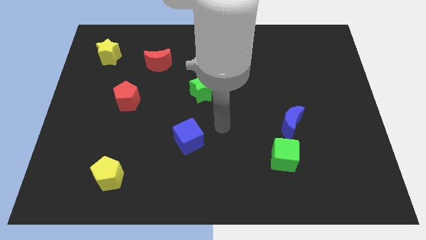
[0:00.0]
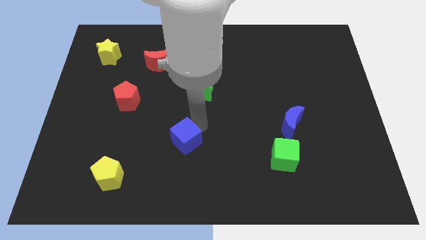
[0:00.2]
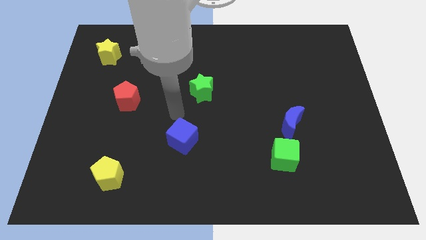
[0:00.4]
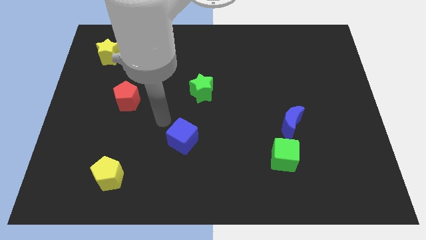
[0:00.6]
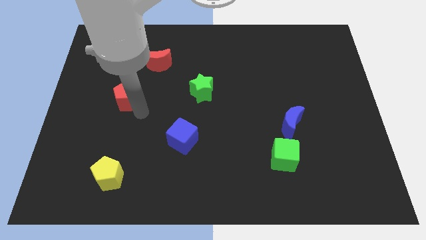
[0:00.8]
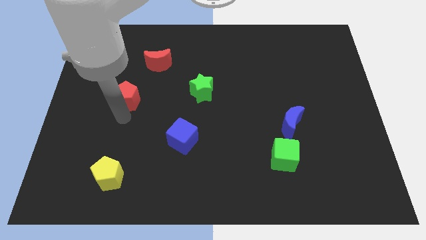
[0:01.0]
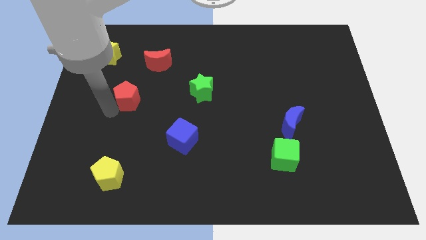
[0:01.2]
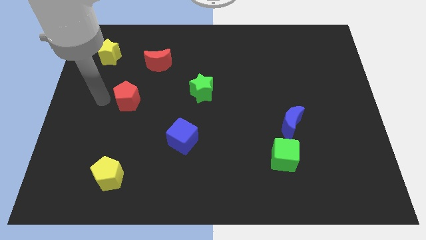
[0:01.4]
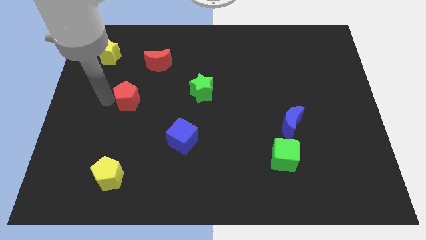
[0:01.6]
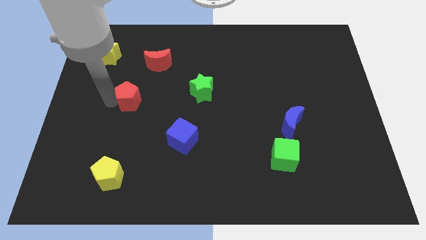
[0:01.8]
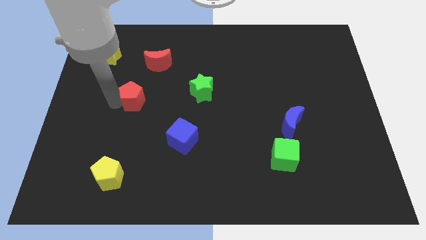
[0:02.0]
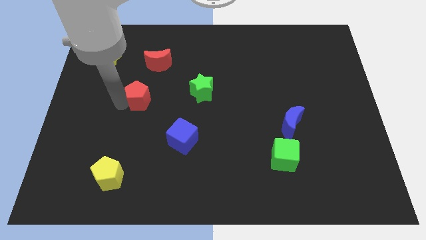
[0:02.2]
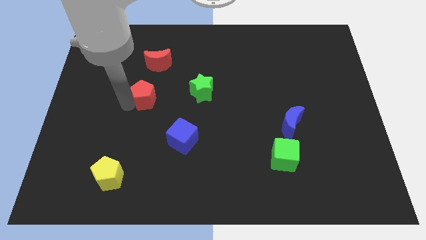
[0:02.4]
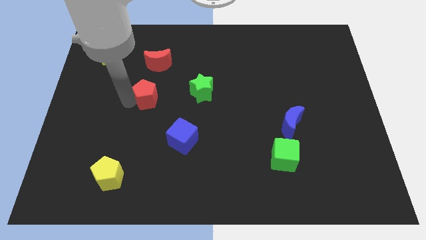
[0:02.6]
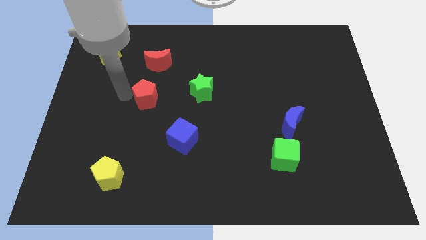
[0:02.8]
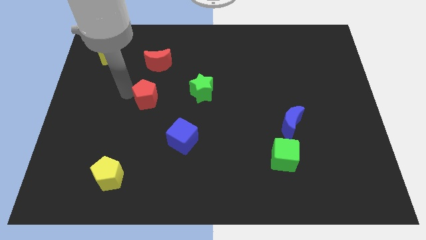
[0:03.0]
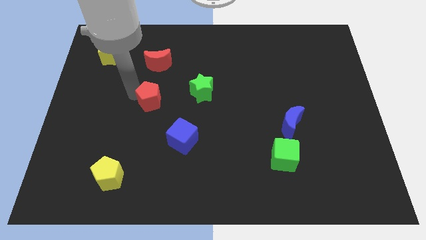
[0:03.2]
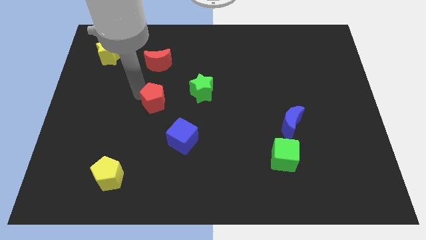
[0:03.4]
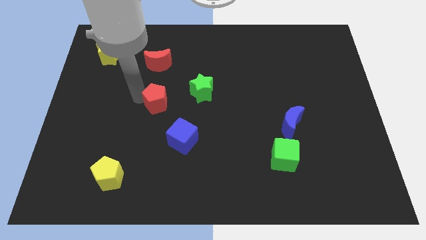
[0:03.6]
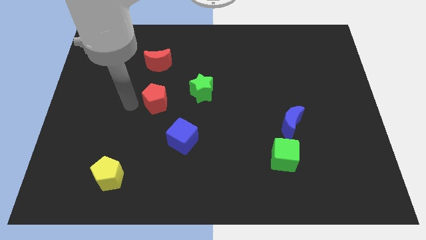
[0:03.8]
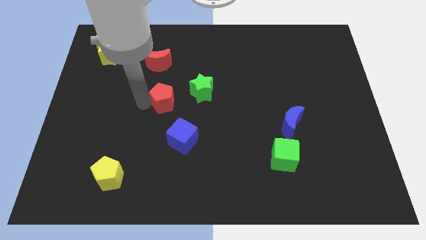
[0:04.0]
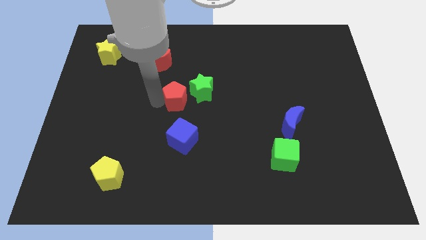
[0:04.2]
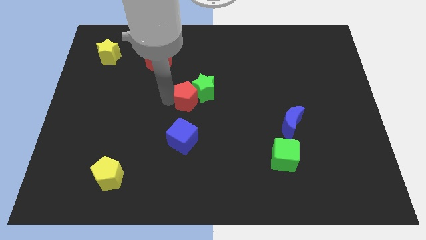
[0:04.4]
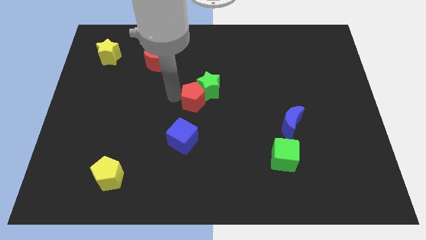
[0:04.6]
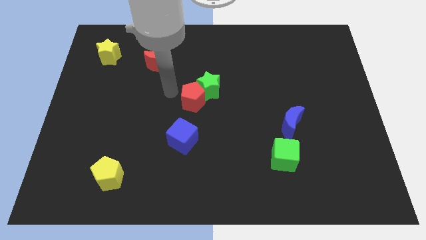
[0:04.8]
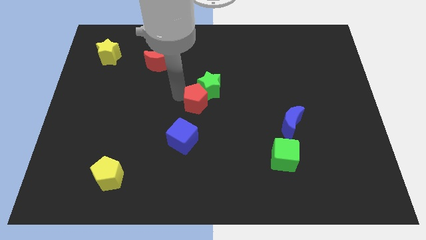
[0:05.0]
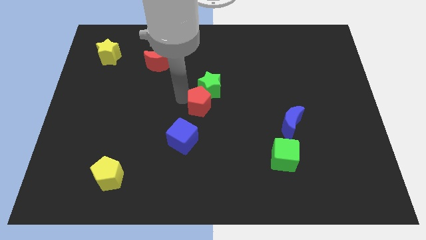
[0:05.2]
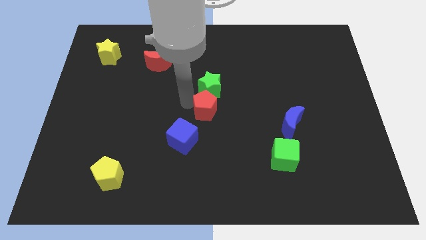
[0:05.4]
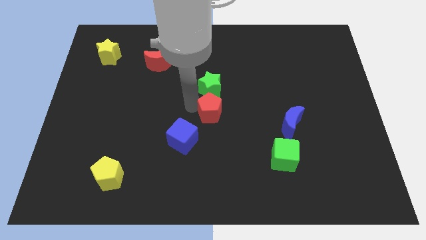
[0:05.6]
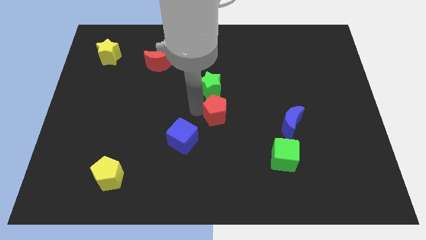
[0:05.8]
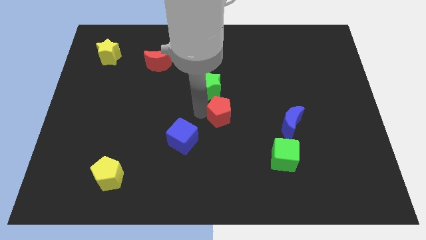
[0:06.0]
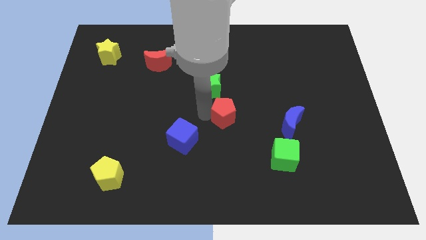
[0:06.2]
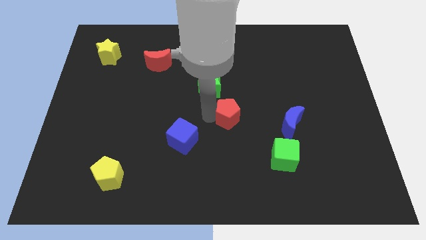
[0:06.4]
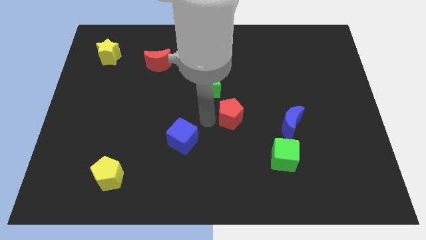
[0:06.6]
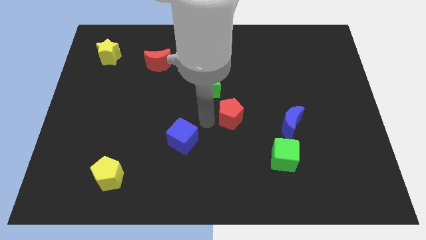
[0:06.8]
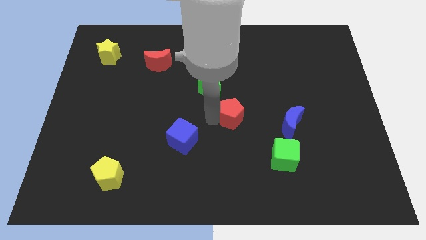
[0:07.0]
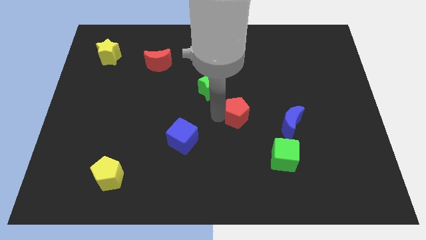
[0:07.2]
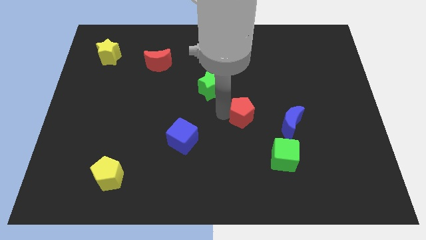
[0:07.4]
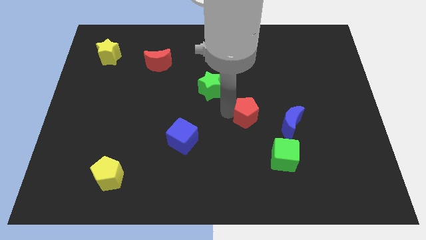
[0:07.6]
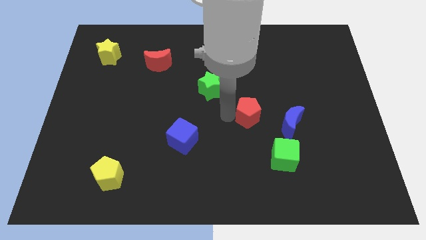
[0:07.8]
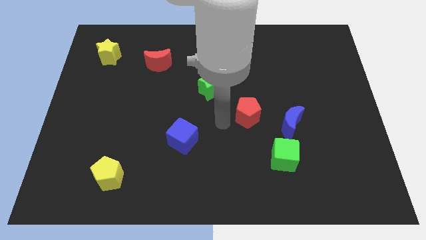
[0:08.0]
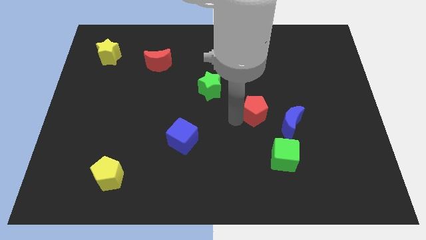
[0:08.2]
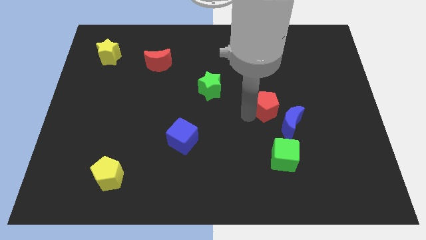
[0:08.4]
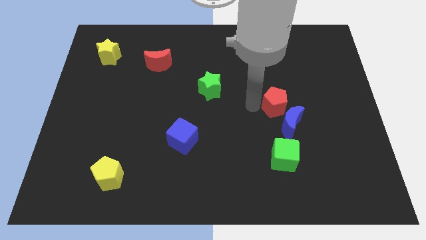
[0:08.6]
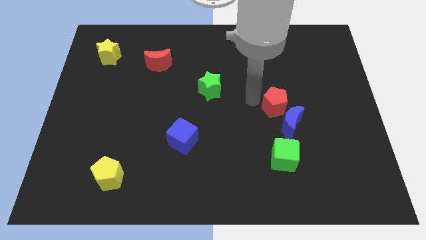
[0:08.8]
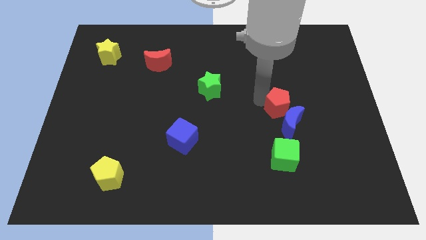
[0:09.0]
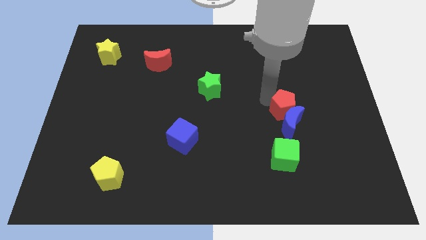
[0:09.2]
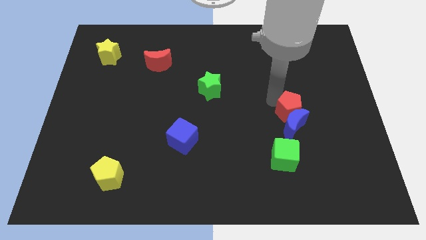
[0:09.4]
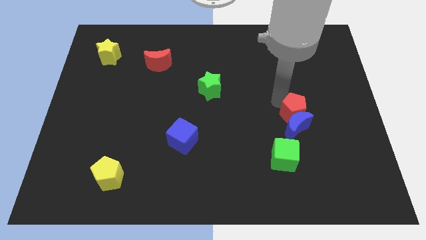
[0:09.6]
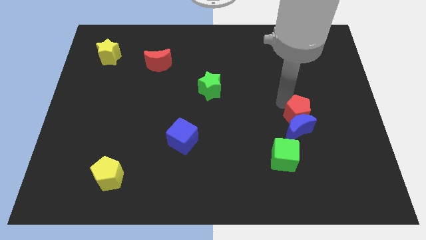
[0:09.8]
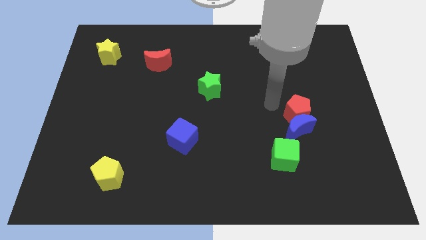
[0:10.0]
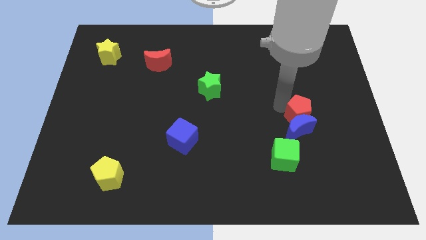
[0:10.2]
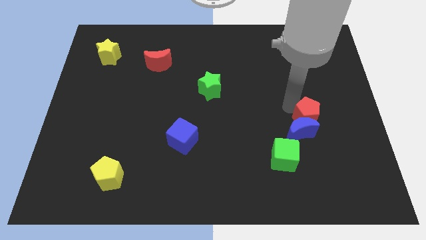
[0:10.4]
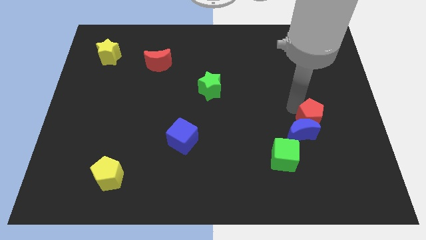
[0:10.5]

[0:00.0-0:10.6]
slide the red pentagon to the right side of the blue moon
